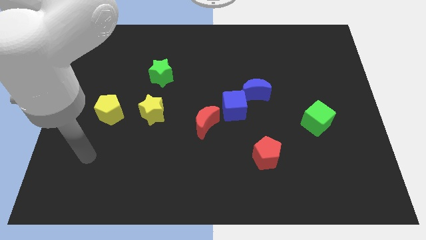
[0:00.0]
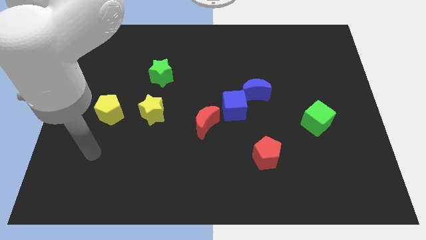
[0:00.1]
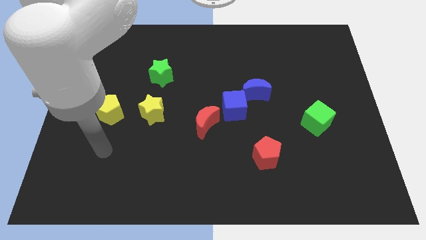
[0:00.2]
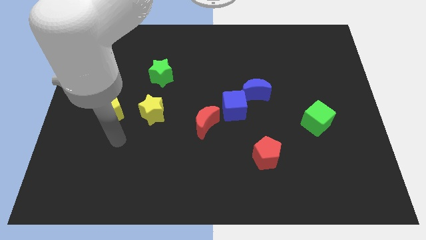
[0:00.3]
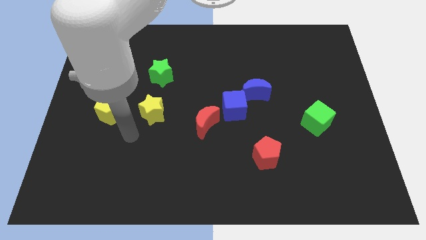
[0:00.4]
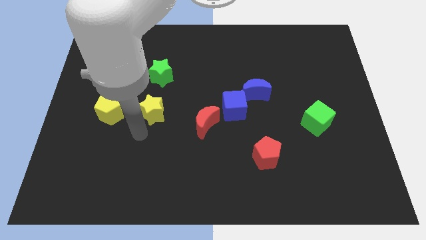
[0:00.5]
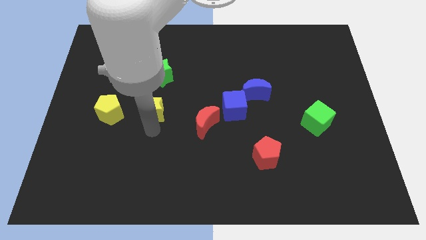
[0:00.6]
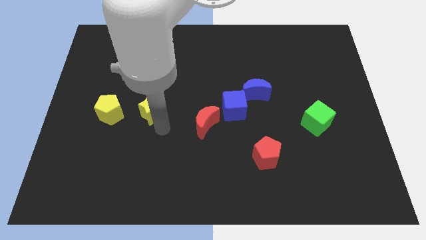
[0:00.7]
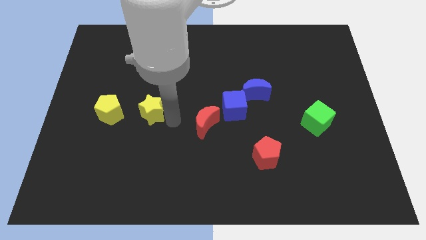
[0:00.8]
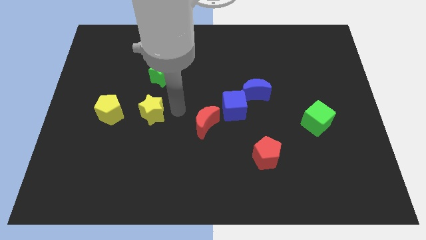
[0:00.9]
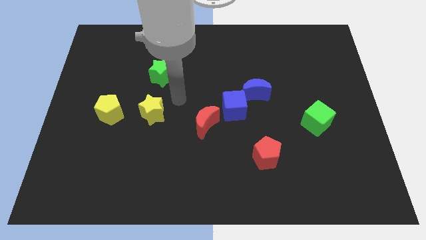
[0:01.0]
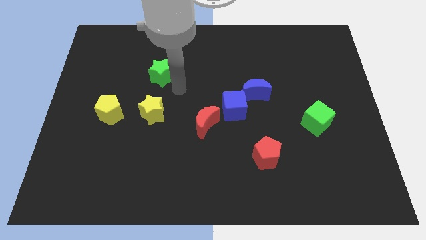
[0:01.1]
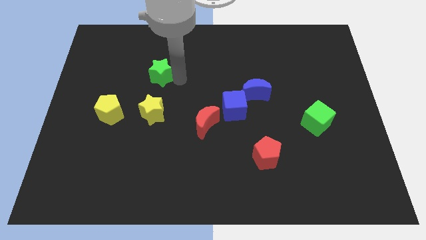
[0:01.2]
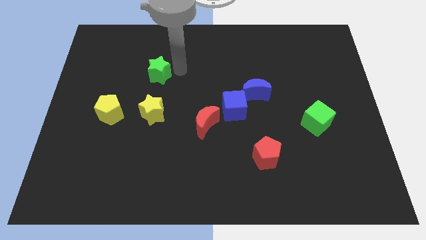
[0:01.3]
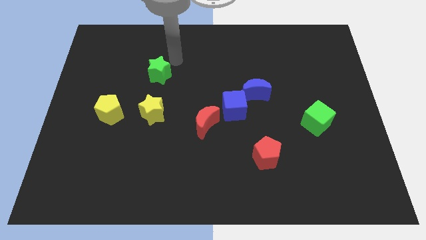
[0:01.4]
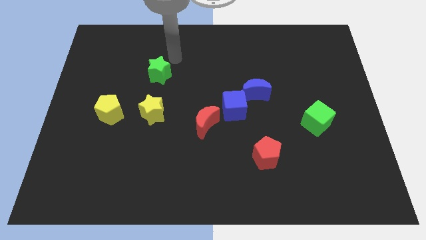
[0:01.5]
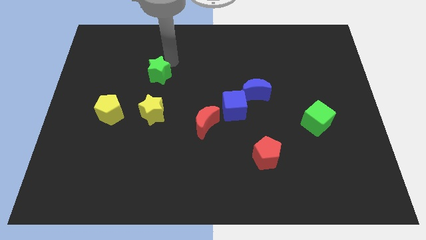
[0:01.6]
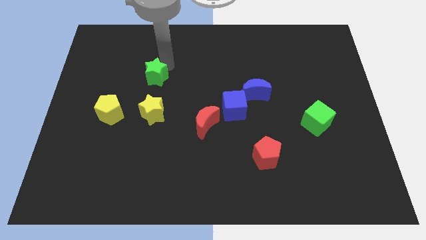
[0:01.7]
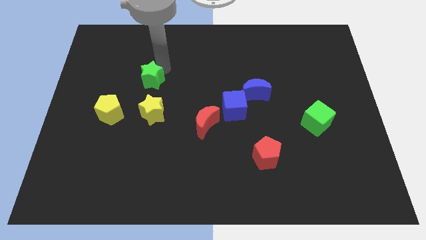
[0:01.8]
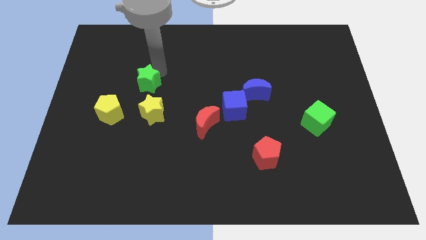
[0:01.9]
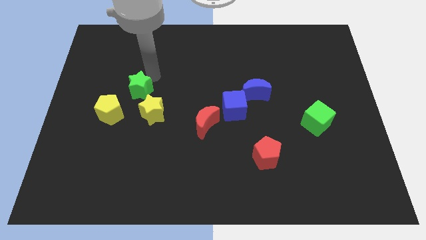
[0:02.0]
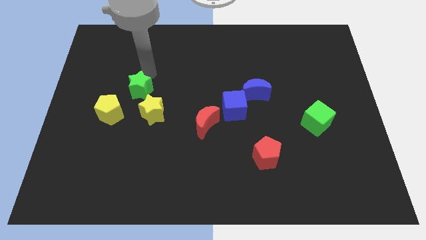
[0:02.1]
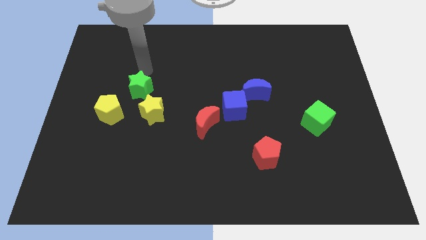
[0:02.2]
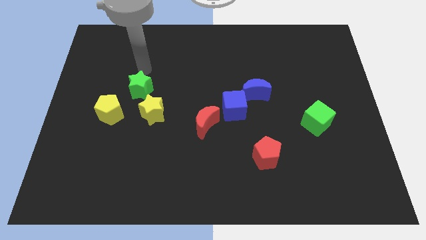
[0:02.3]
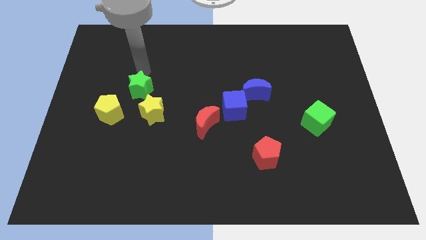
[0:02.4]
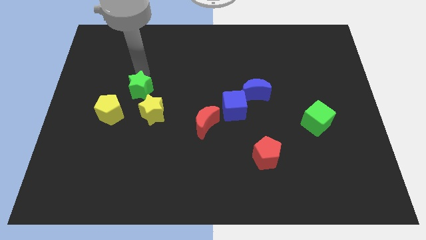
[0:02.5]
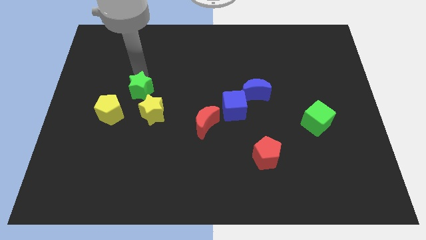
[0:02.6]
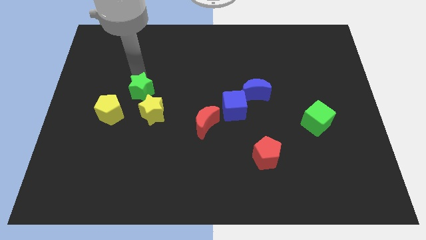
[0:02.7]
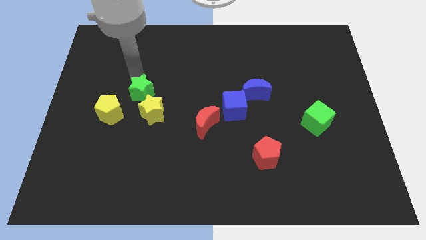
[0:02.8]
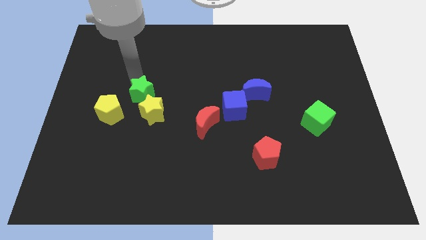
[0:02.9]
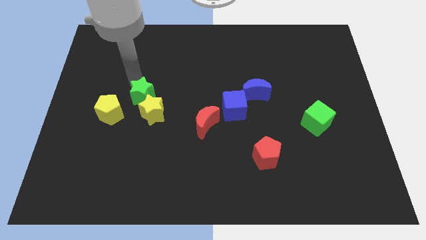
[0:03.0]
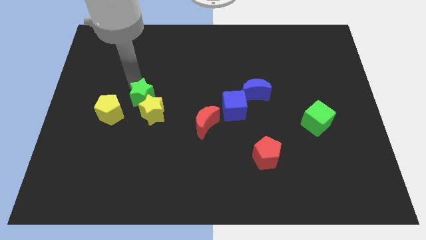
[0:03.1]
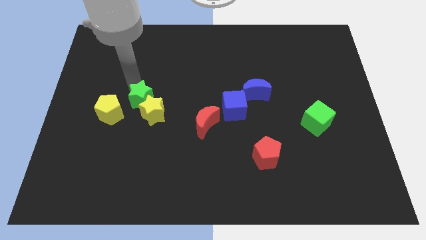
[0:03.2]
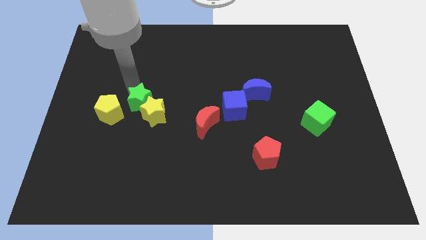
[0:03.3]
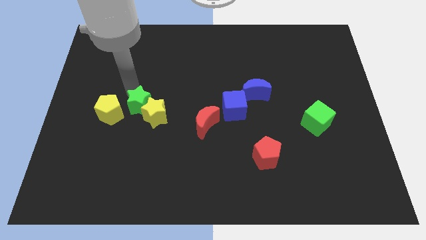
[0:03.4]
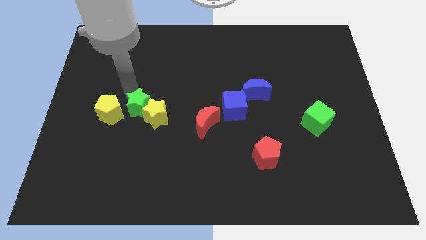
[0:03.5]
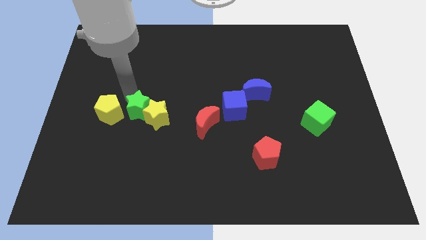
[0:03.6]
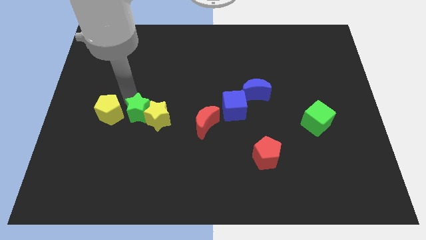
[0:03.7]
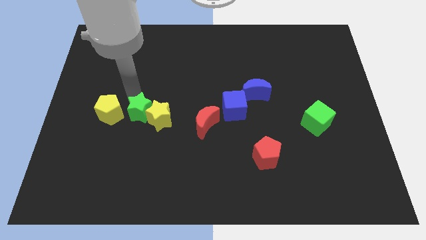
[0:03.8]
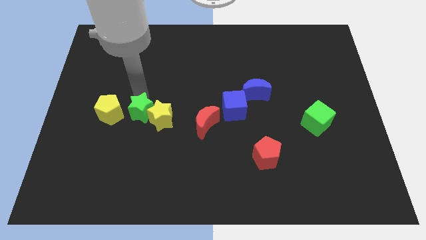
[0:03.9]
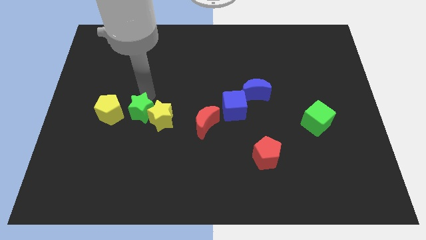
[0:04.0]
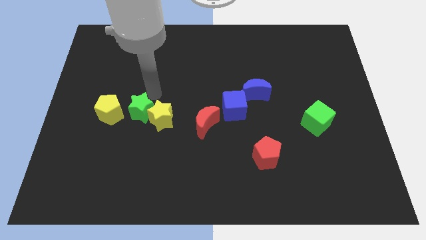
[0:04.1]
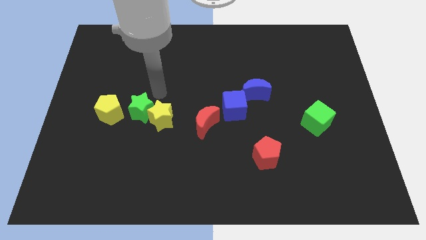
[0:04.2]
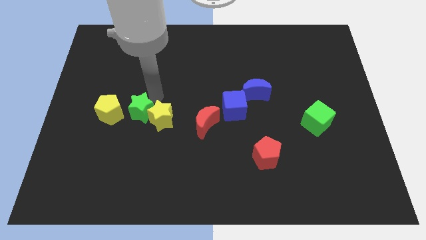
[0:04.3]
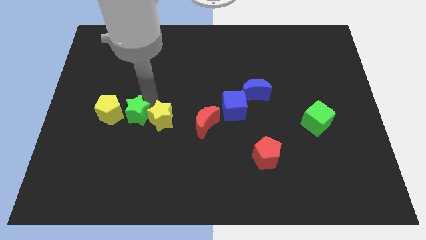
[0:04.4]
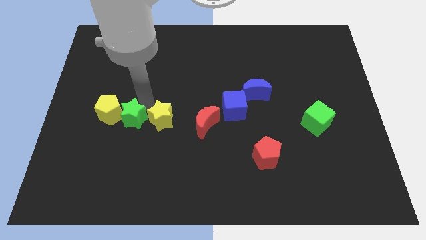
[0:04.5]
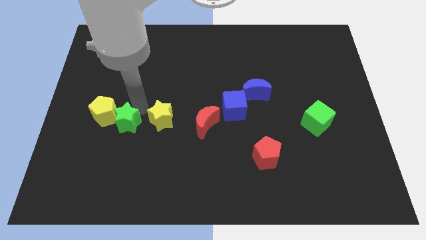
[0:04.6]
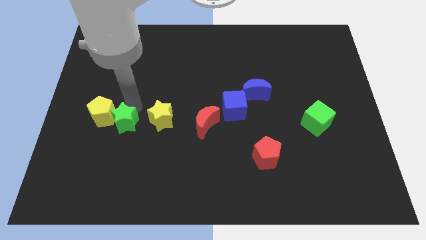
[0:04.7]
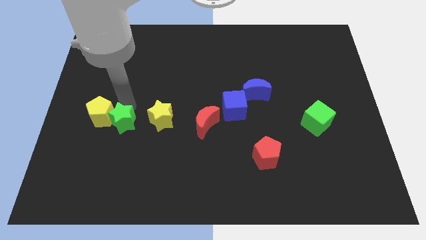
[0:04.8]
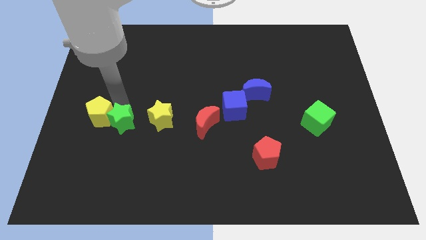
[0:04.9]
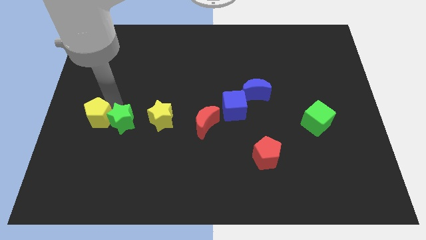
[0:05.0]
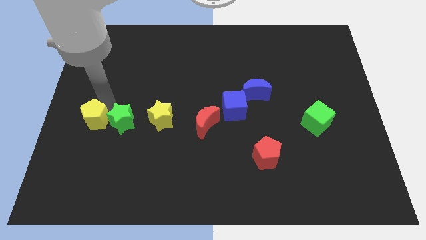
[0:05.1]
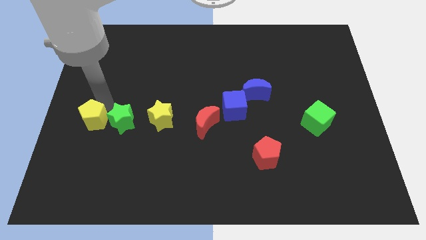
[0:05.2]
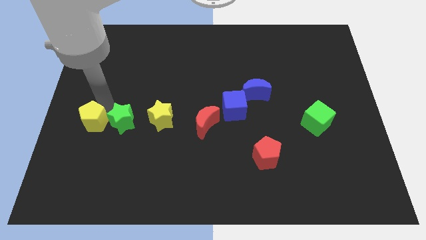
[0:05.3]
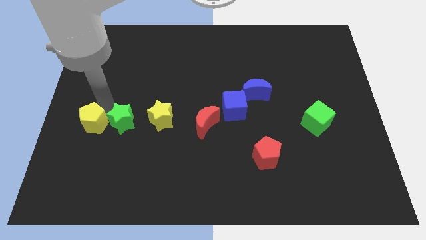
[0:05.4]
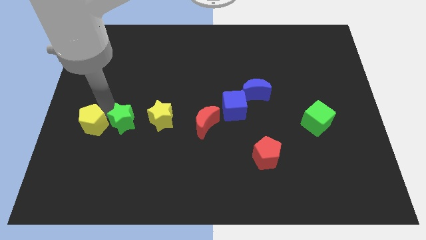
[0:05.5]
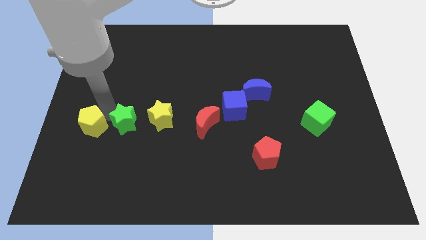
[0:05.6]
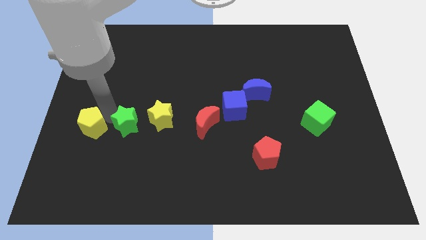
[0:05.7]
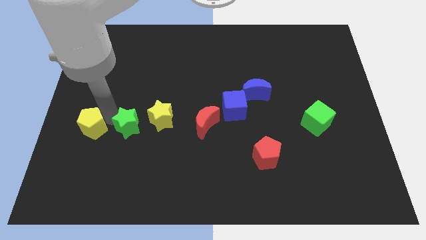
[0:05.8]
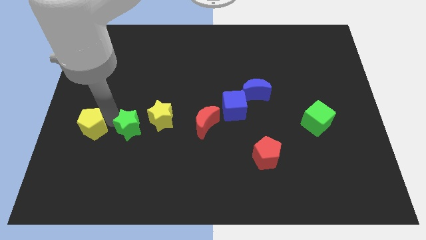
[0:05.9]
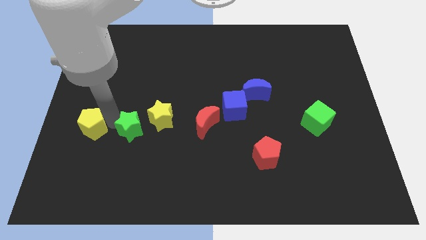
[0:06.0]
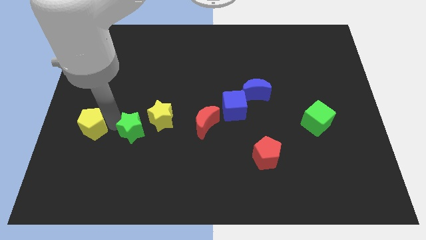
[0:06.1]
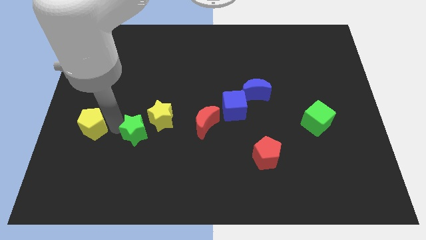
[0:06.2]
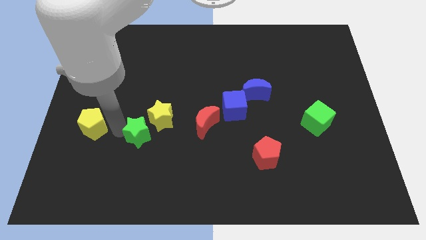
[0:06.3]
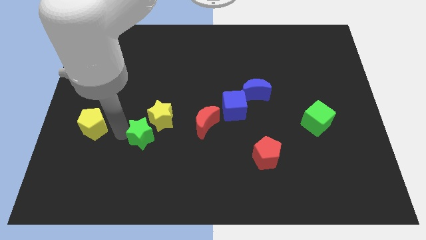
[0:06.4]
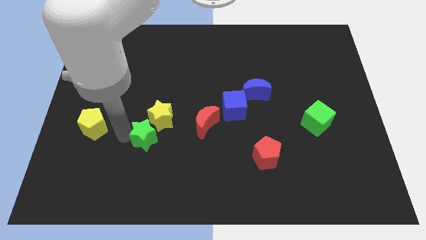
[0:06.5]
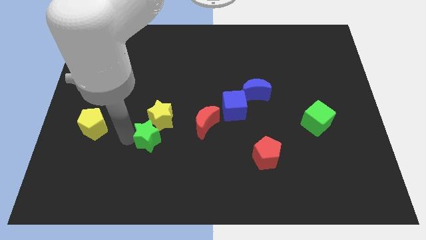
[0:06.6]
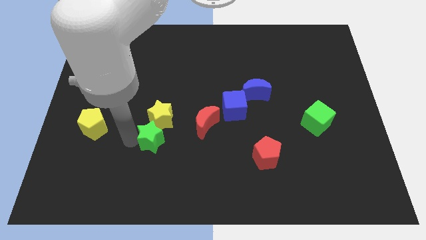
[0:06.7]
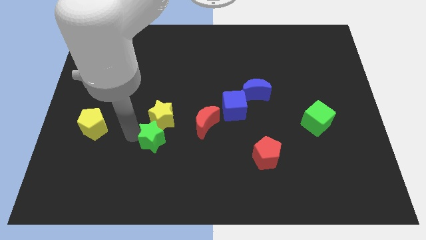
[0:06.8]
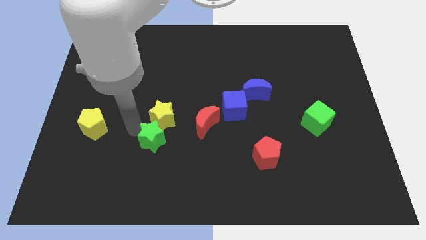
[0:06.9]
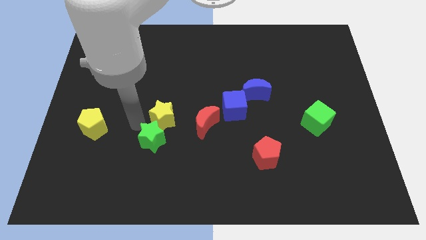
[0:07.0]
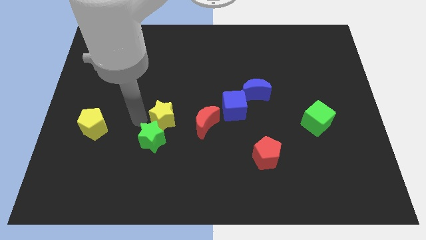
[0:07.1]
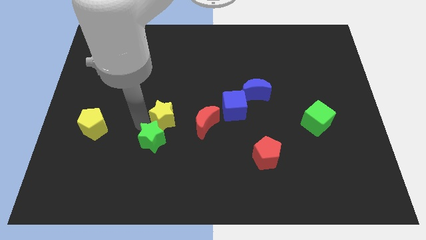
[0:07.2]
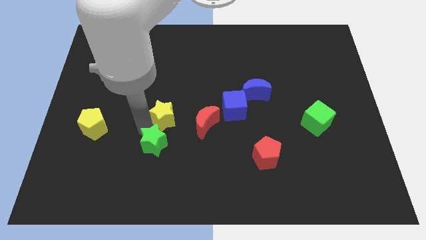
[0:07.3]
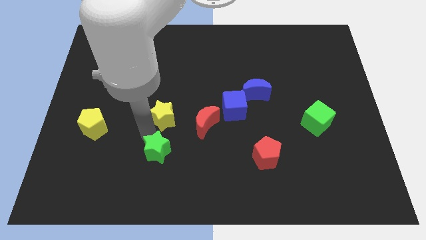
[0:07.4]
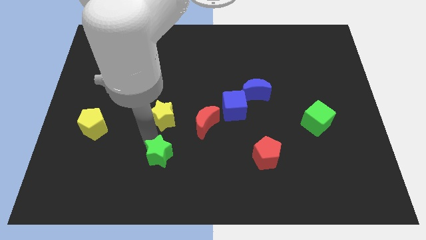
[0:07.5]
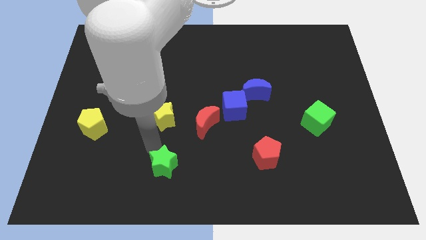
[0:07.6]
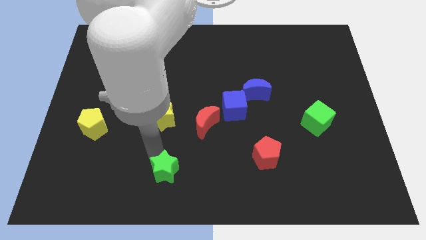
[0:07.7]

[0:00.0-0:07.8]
put the green star to the bottom
